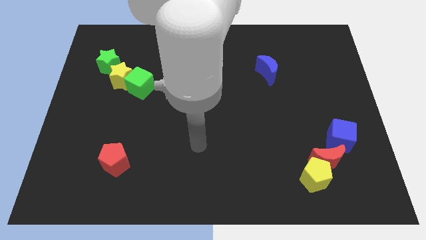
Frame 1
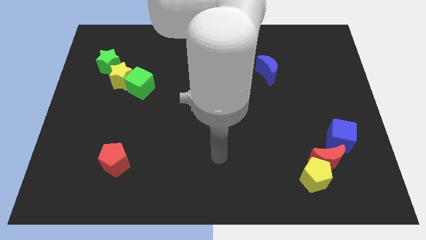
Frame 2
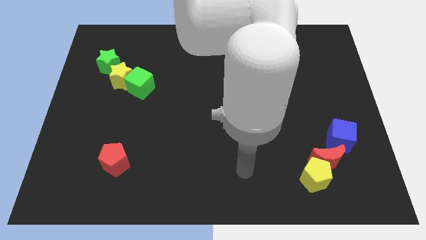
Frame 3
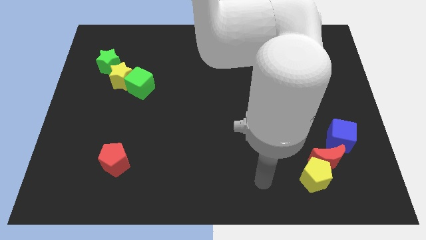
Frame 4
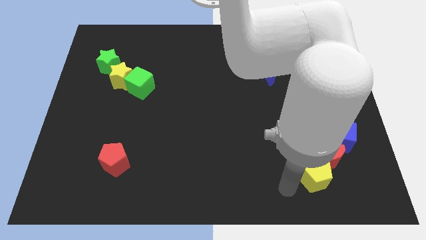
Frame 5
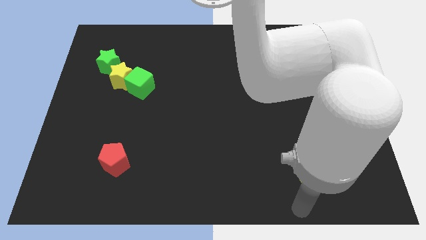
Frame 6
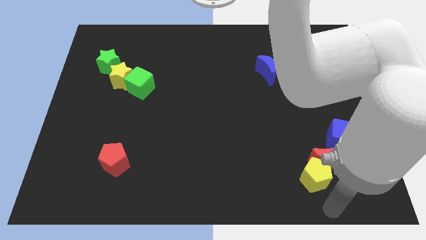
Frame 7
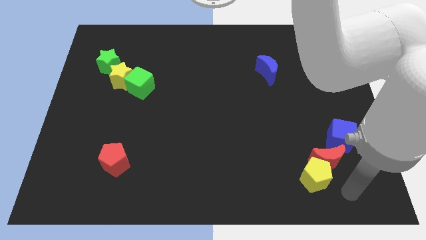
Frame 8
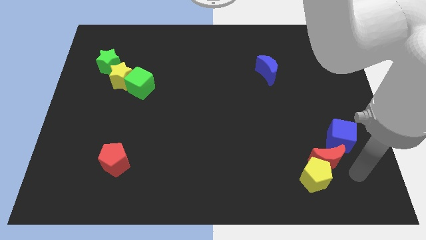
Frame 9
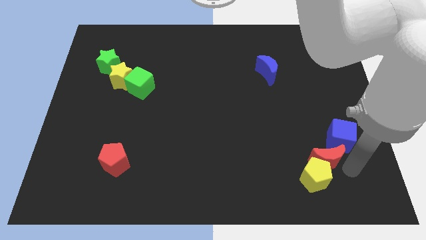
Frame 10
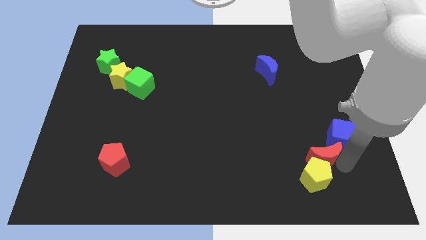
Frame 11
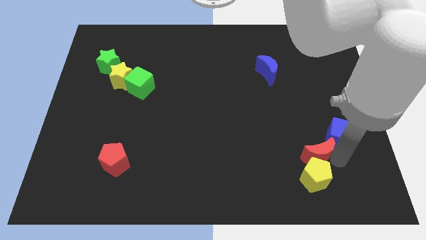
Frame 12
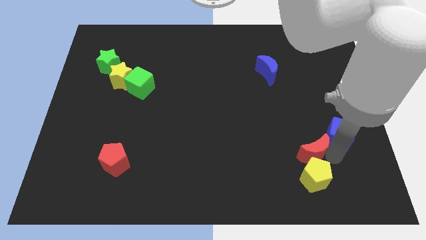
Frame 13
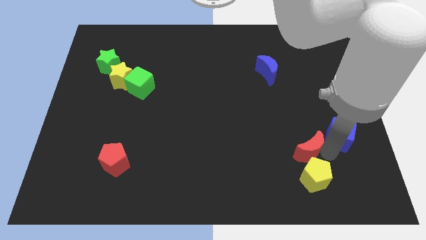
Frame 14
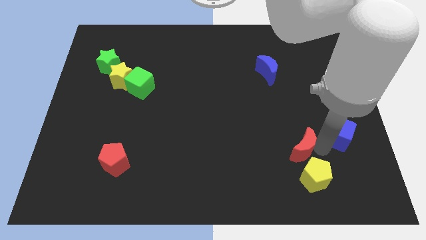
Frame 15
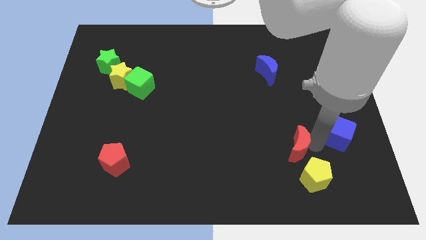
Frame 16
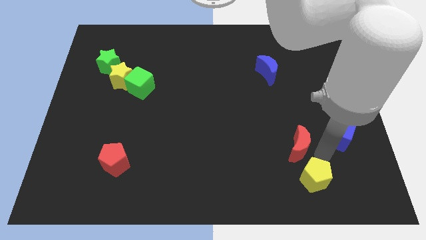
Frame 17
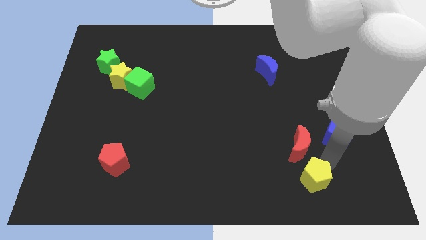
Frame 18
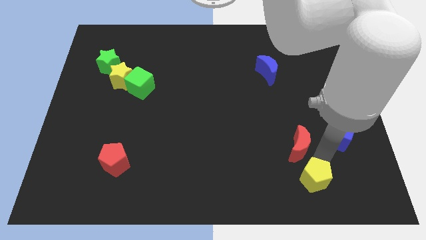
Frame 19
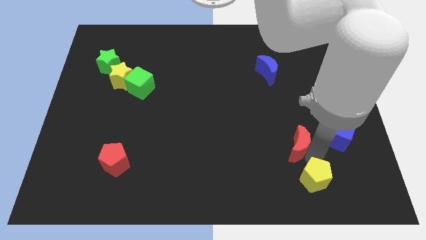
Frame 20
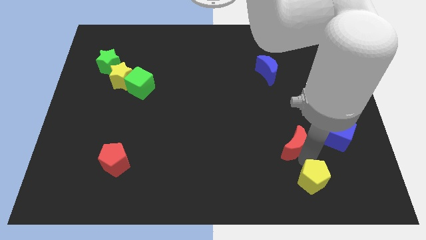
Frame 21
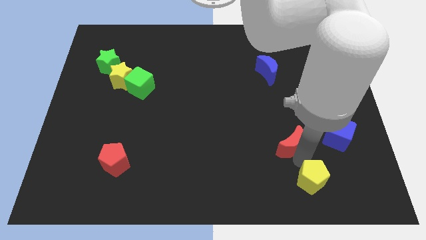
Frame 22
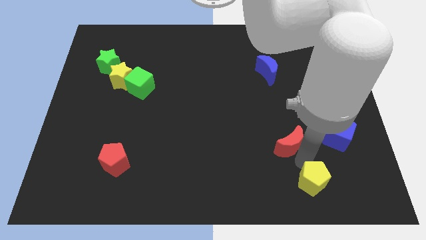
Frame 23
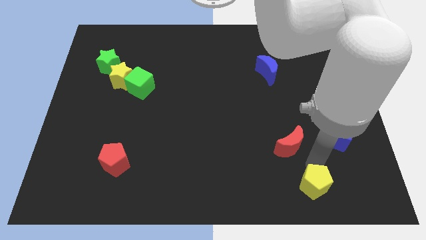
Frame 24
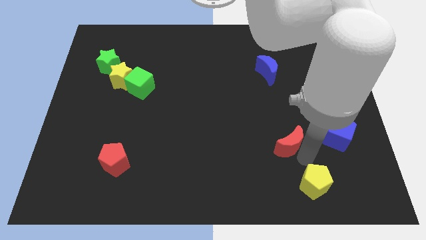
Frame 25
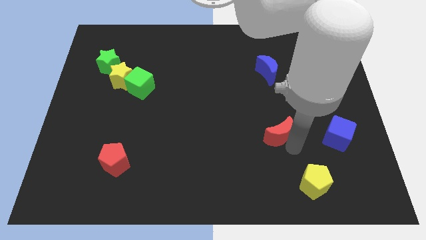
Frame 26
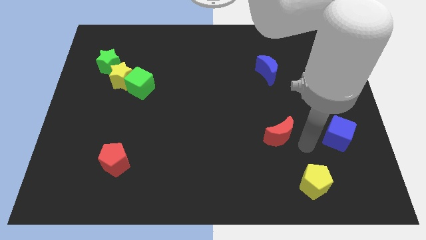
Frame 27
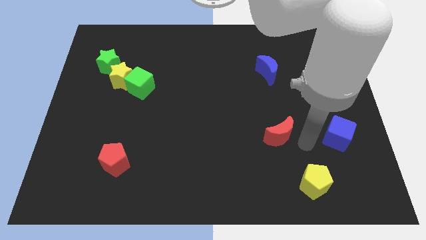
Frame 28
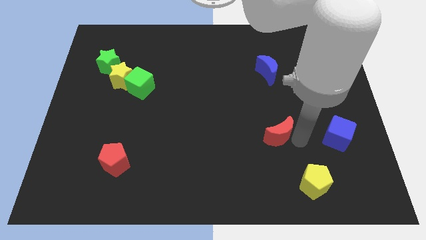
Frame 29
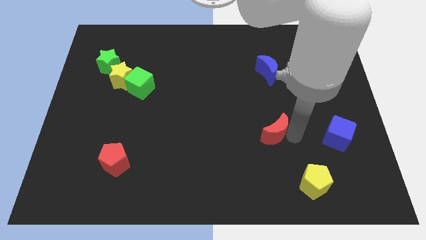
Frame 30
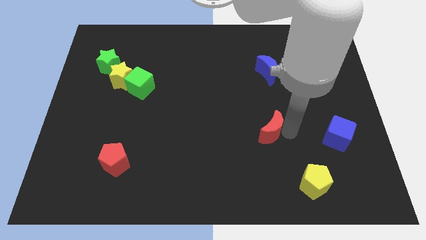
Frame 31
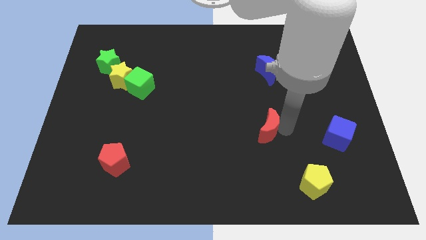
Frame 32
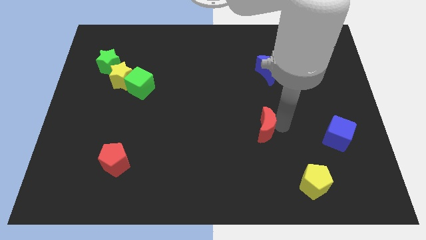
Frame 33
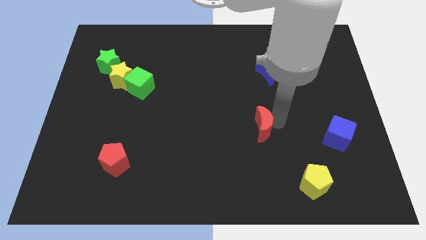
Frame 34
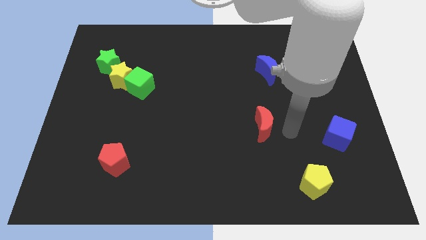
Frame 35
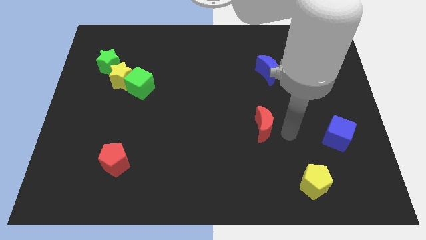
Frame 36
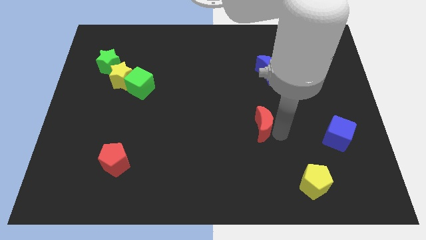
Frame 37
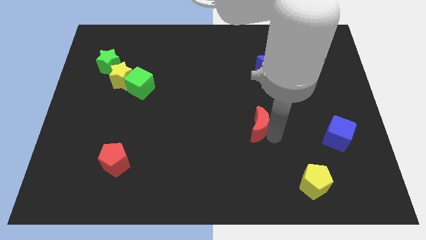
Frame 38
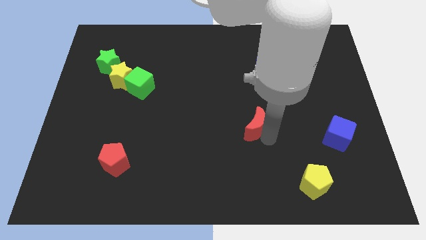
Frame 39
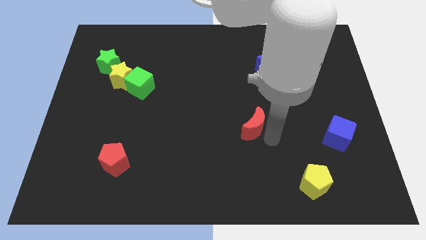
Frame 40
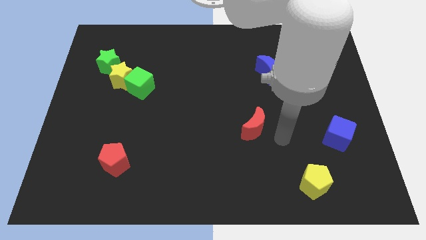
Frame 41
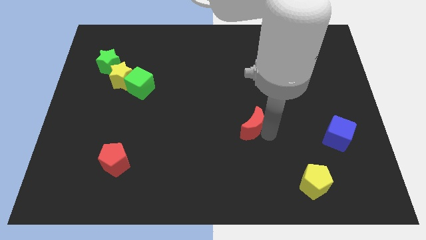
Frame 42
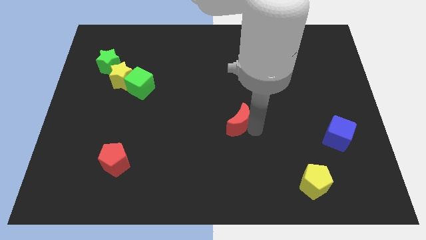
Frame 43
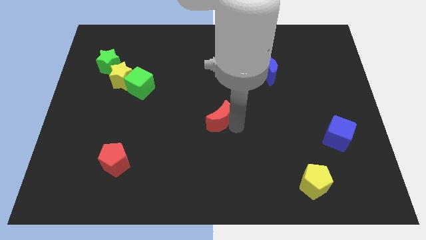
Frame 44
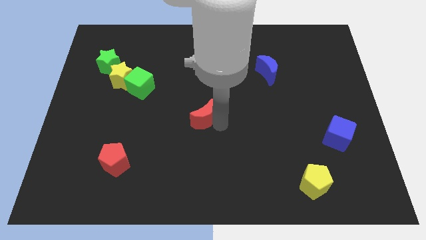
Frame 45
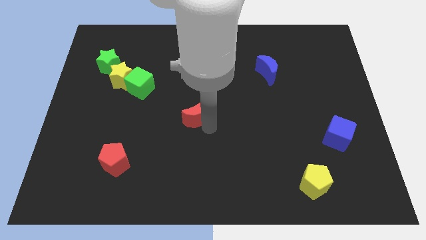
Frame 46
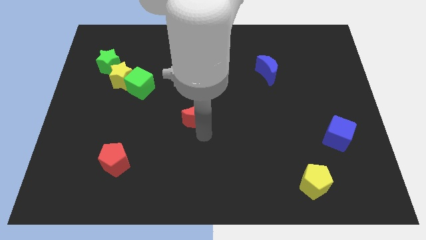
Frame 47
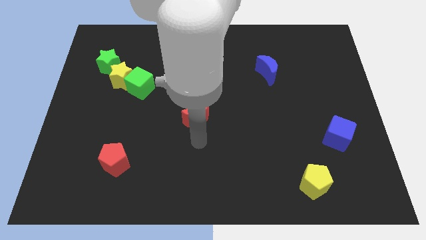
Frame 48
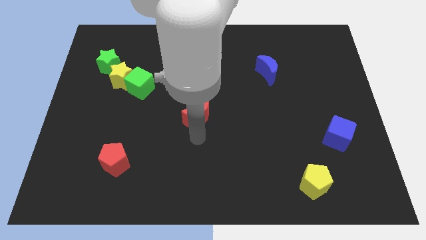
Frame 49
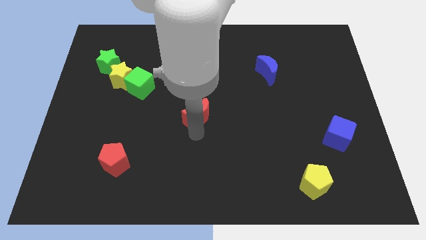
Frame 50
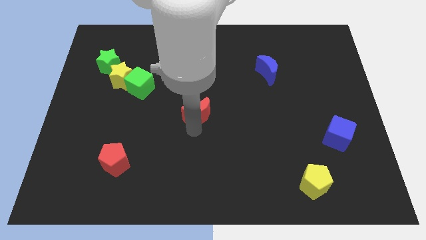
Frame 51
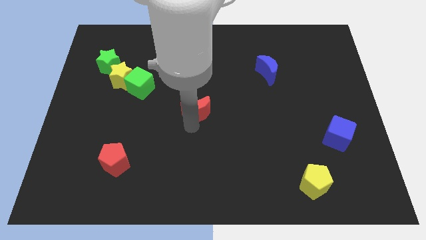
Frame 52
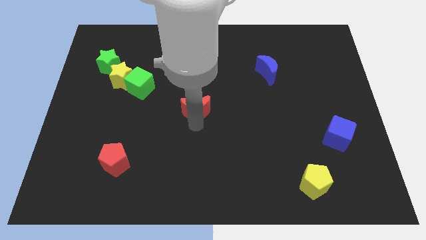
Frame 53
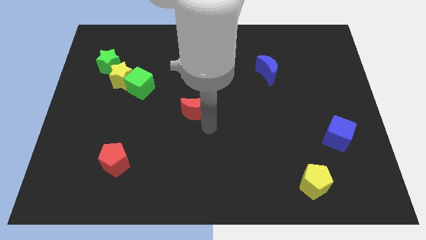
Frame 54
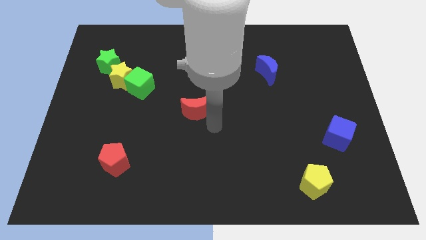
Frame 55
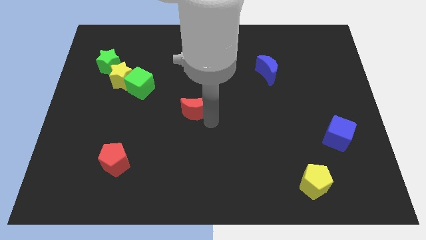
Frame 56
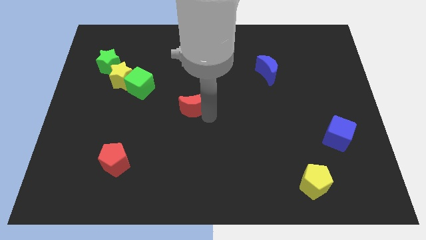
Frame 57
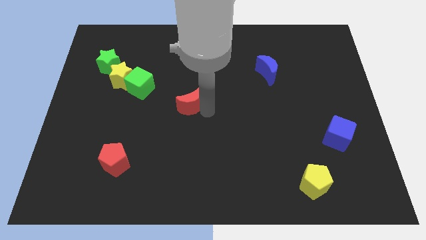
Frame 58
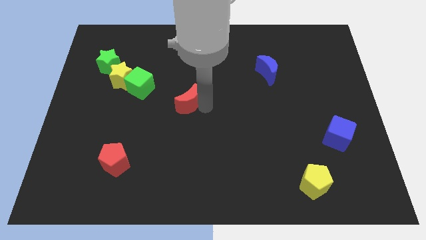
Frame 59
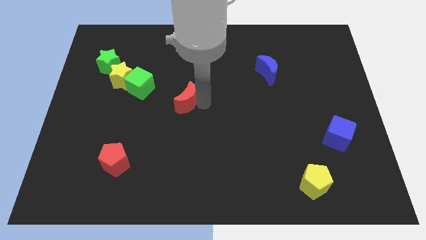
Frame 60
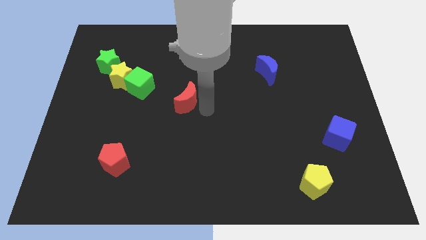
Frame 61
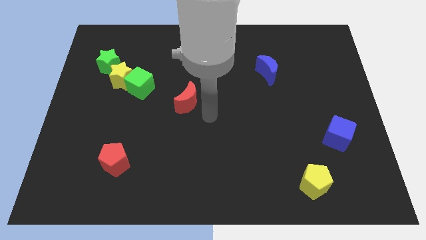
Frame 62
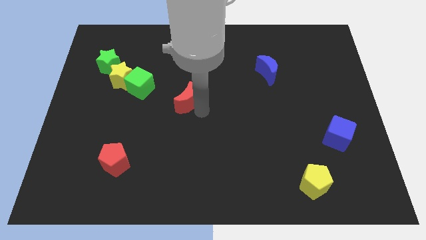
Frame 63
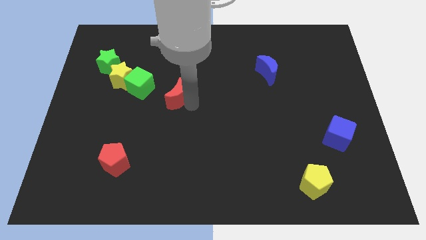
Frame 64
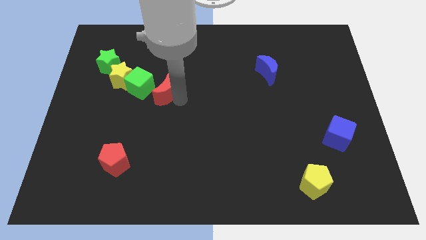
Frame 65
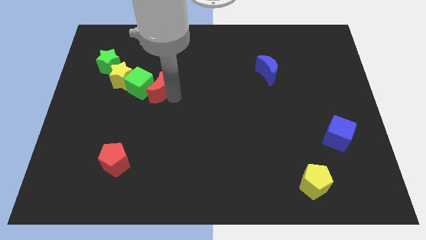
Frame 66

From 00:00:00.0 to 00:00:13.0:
slide the red moon close to the green cube
